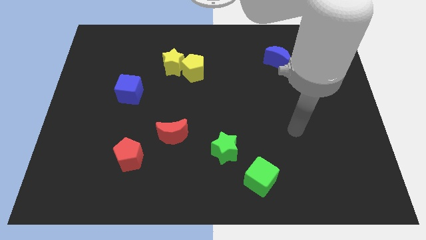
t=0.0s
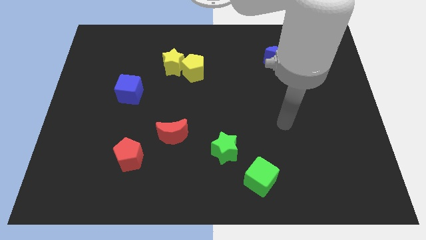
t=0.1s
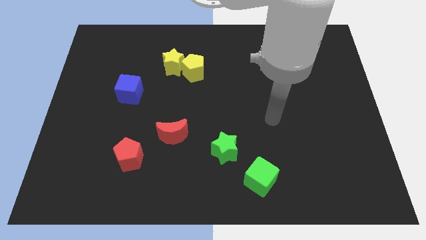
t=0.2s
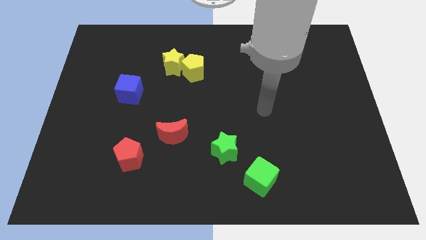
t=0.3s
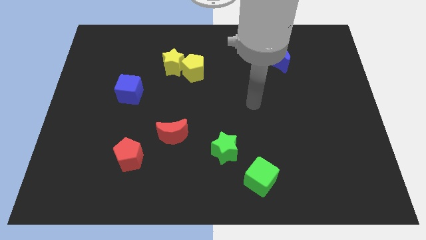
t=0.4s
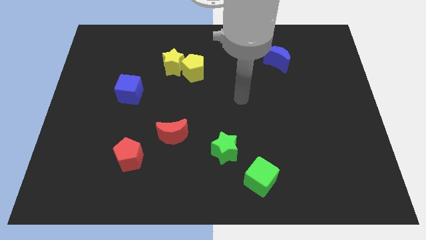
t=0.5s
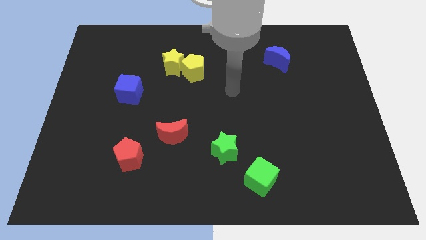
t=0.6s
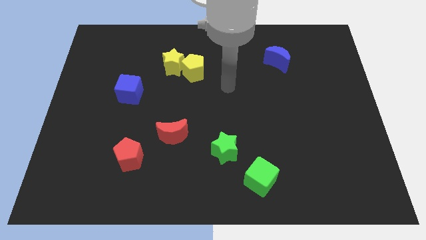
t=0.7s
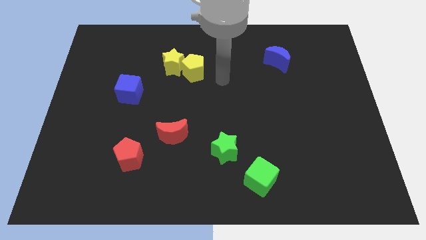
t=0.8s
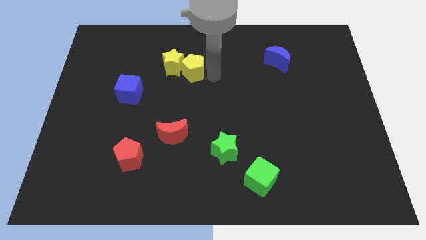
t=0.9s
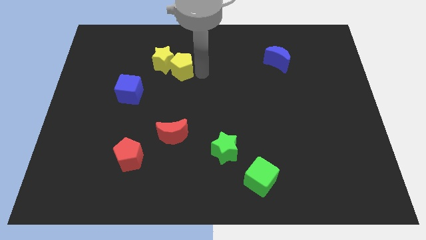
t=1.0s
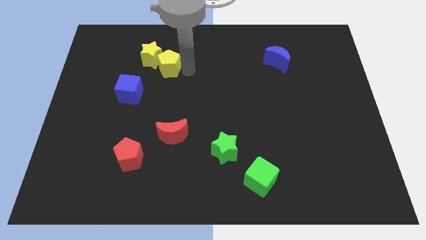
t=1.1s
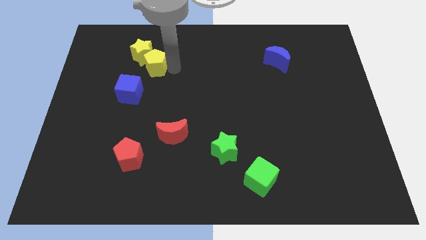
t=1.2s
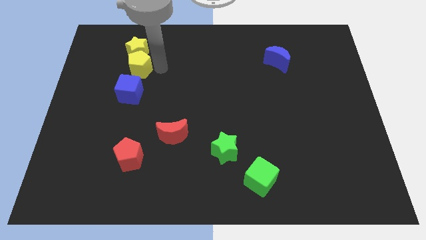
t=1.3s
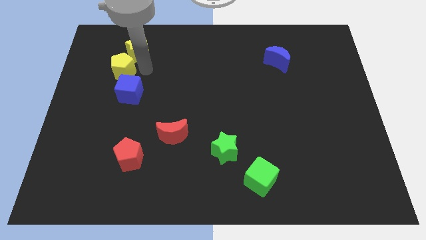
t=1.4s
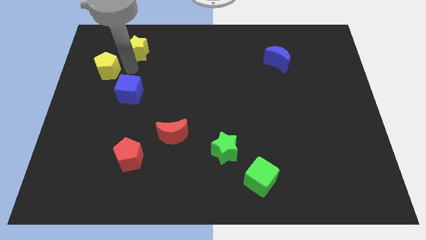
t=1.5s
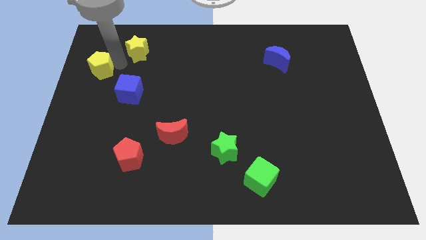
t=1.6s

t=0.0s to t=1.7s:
move the yellow star away from the yellow pentagon

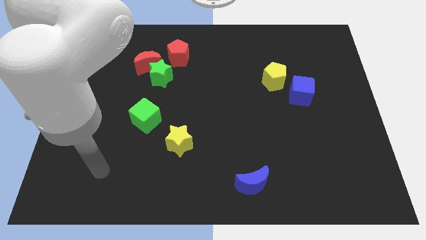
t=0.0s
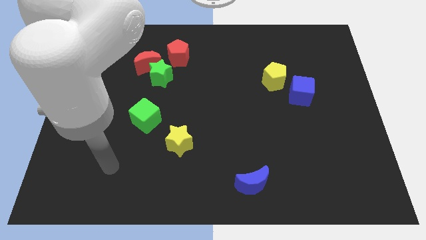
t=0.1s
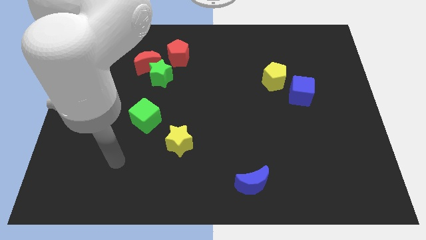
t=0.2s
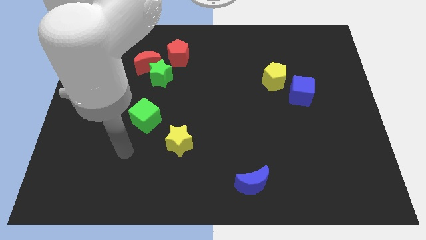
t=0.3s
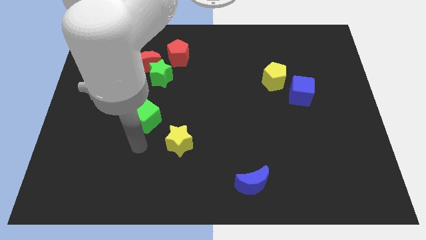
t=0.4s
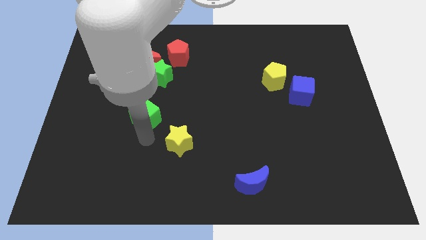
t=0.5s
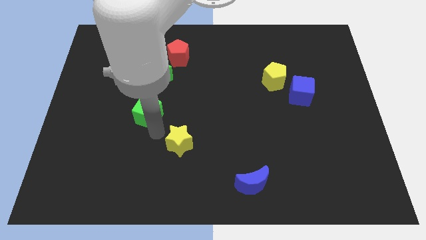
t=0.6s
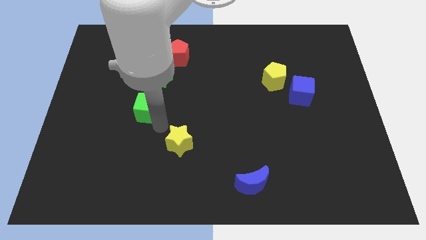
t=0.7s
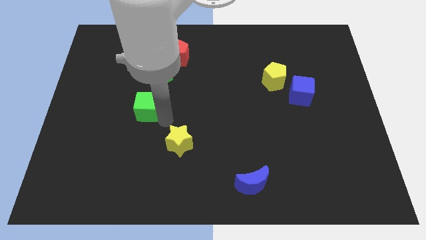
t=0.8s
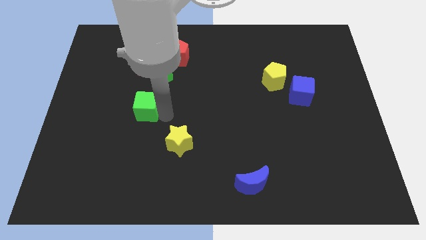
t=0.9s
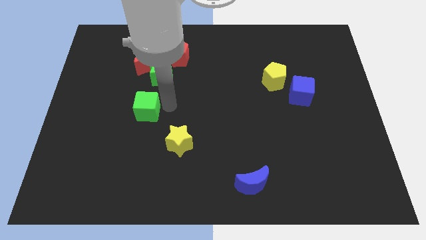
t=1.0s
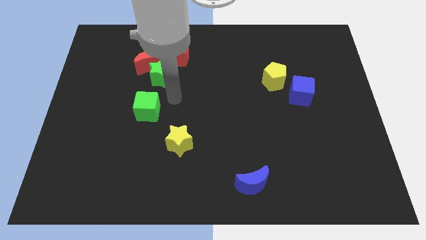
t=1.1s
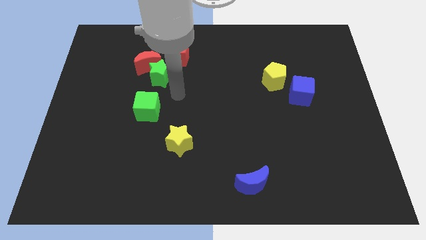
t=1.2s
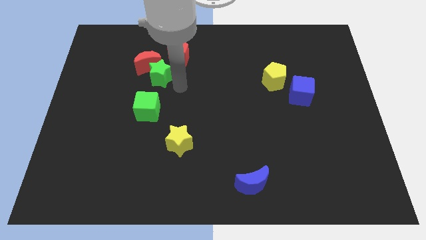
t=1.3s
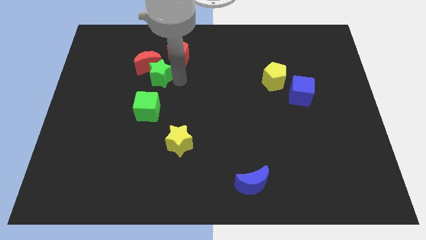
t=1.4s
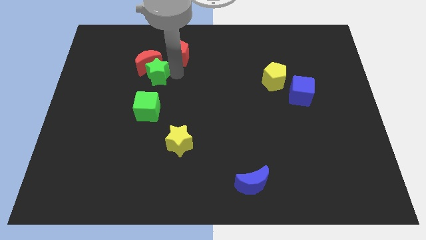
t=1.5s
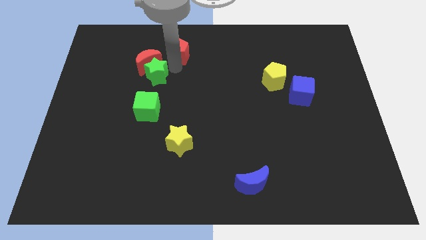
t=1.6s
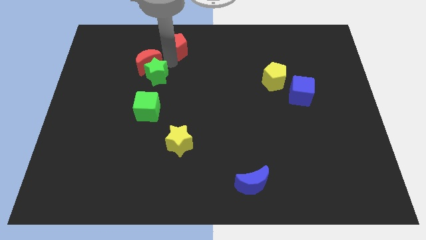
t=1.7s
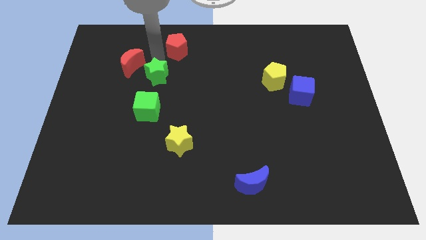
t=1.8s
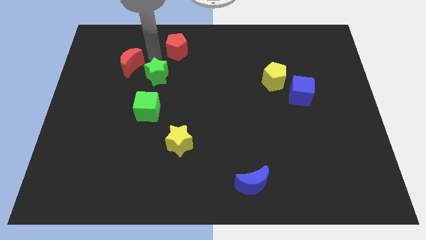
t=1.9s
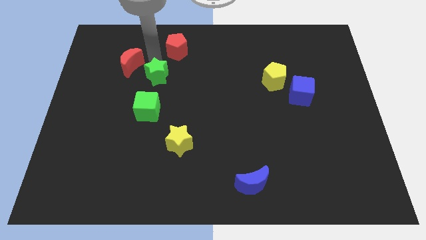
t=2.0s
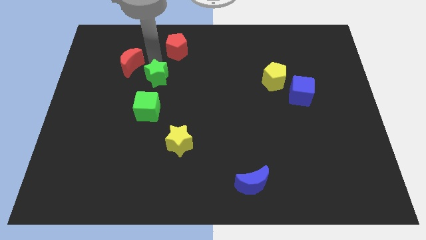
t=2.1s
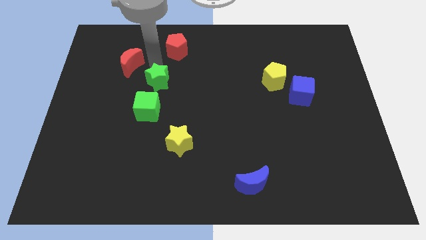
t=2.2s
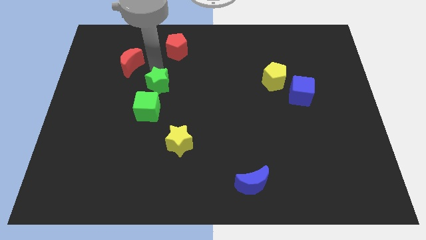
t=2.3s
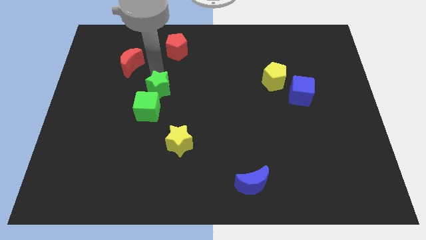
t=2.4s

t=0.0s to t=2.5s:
pull the green star apart from the red moon and red pentagon

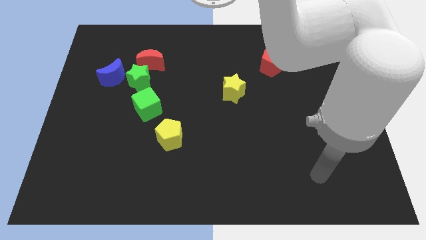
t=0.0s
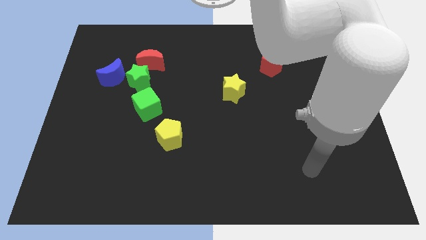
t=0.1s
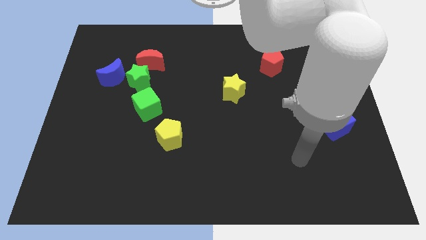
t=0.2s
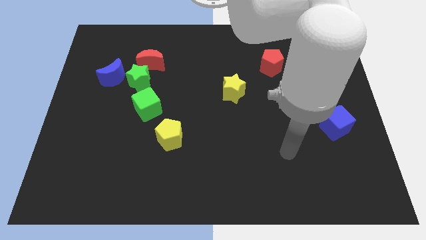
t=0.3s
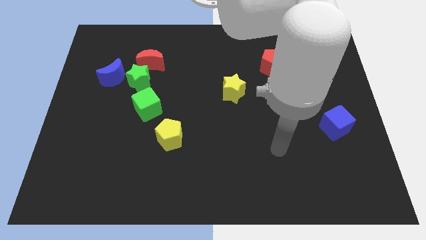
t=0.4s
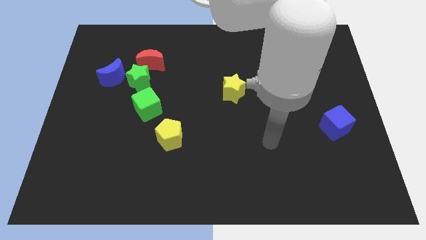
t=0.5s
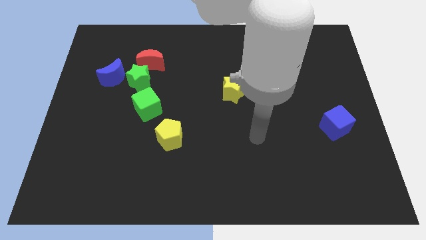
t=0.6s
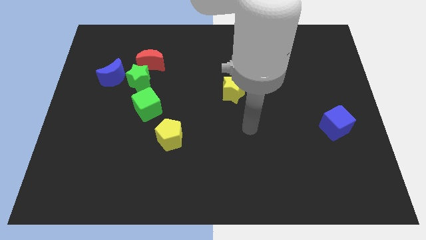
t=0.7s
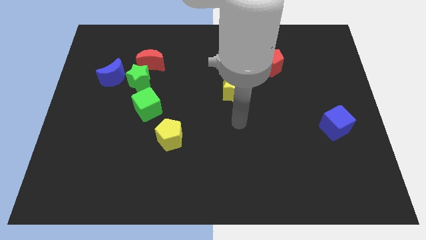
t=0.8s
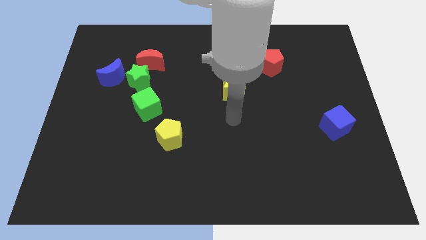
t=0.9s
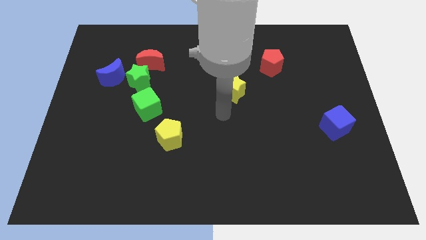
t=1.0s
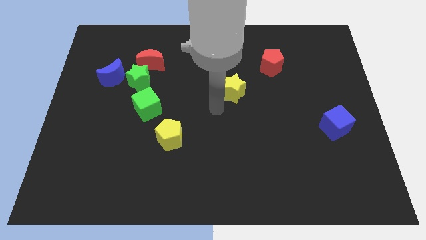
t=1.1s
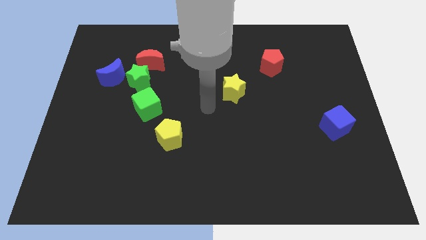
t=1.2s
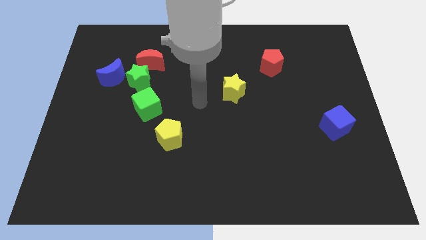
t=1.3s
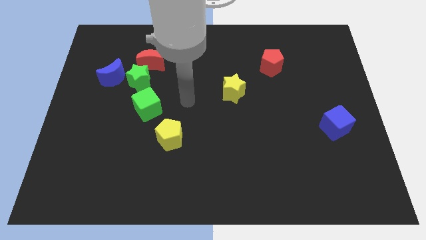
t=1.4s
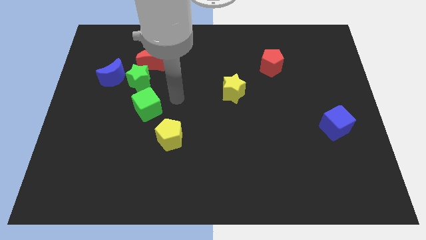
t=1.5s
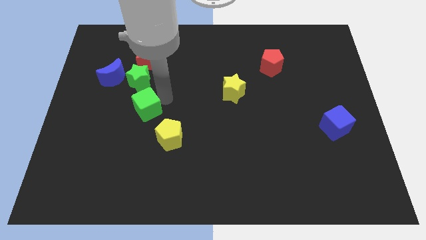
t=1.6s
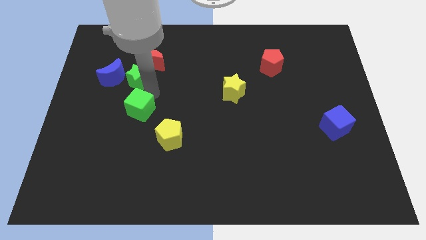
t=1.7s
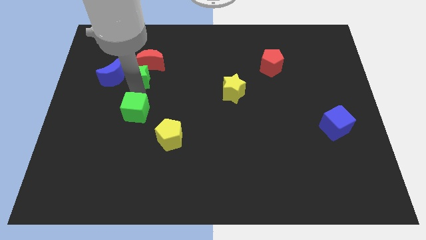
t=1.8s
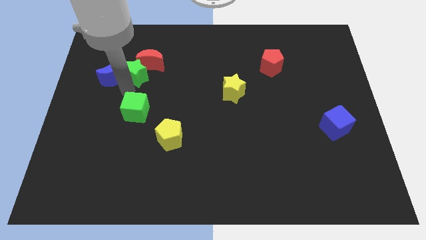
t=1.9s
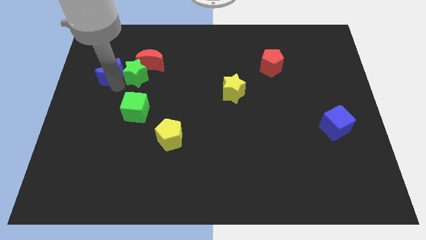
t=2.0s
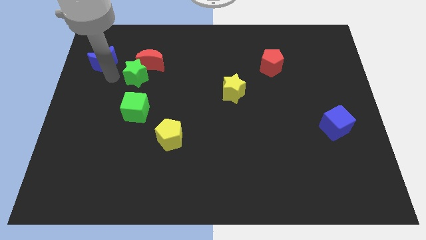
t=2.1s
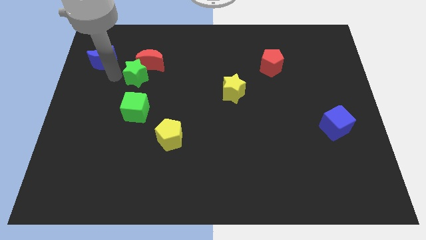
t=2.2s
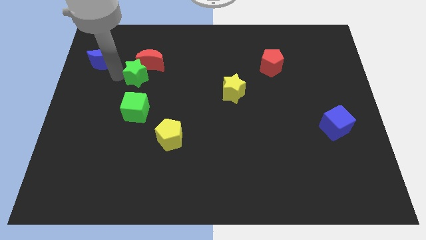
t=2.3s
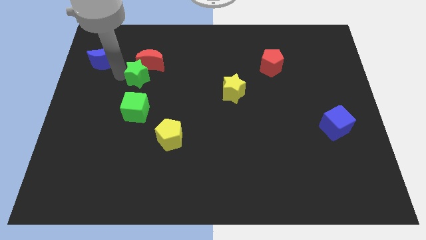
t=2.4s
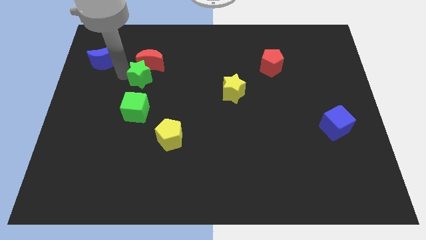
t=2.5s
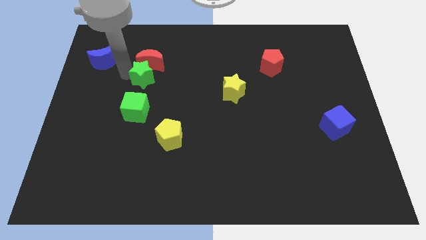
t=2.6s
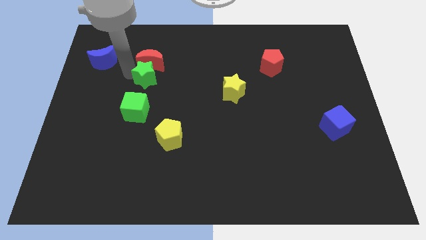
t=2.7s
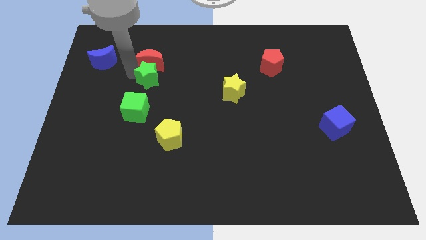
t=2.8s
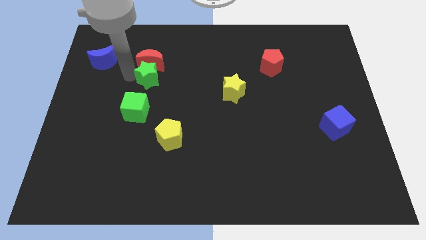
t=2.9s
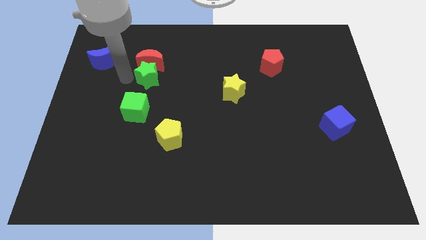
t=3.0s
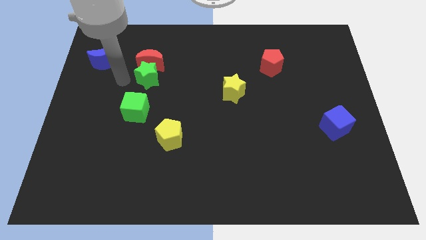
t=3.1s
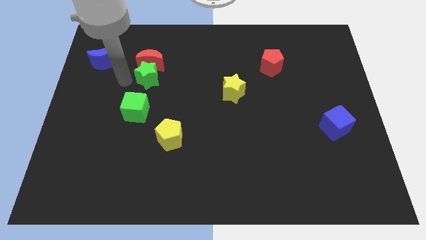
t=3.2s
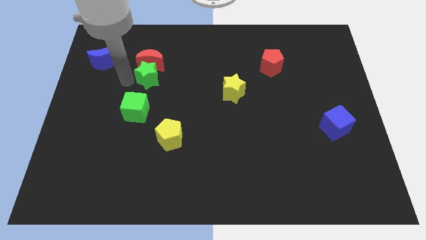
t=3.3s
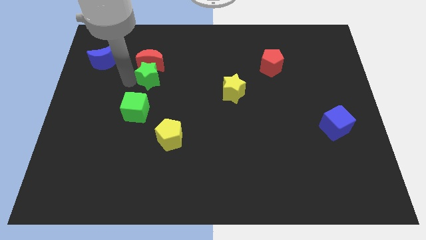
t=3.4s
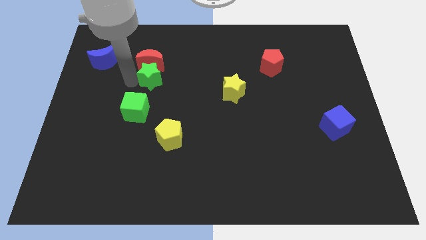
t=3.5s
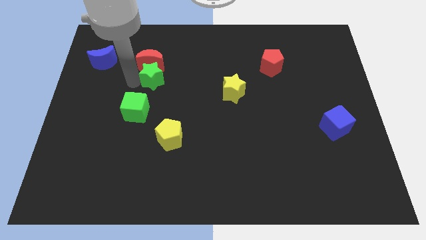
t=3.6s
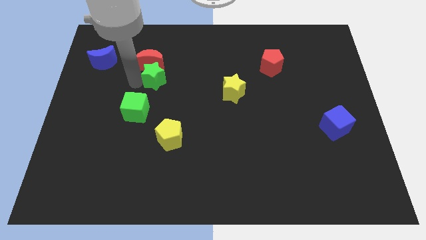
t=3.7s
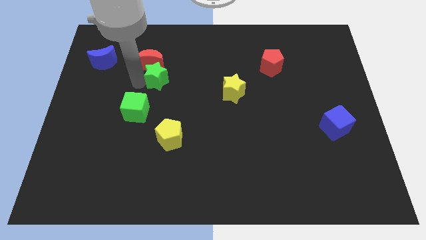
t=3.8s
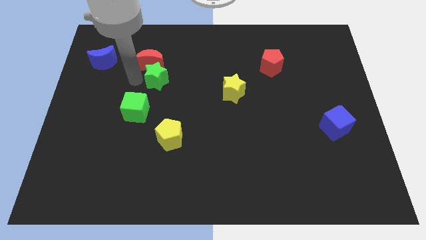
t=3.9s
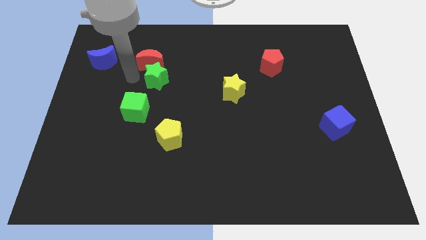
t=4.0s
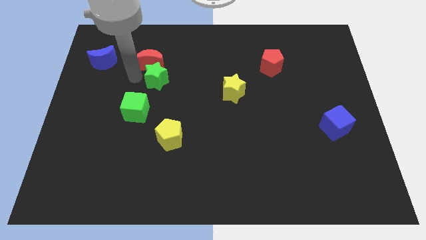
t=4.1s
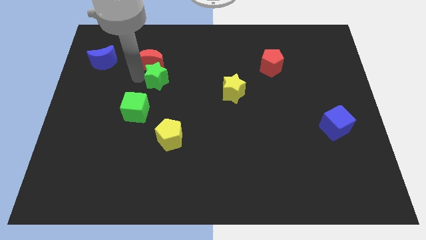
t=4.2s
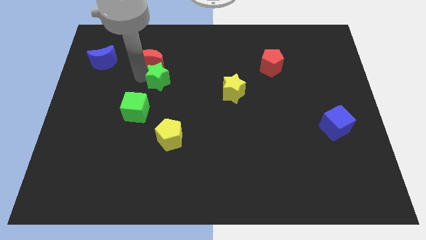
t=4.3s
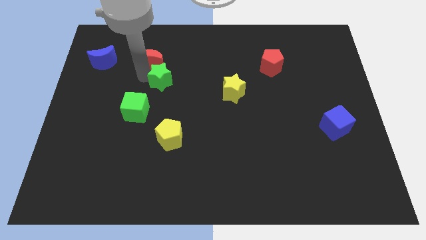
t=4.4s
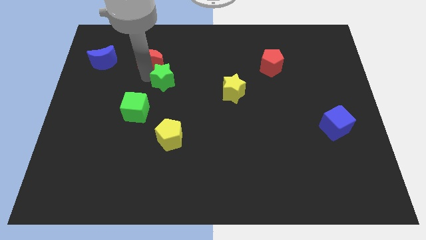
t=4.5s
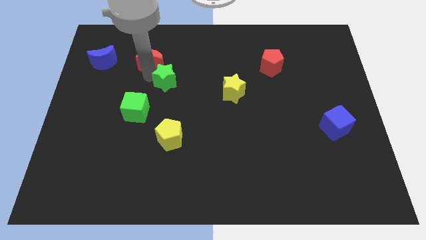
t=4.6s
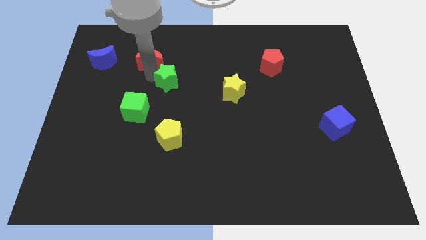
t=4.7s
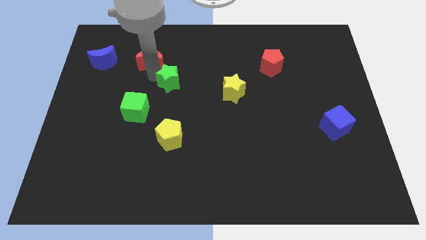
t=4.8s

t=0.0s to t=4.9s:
separate the green star from the red moon, blue moon, and green cube

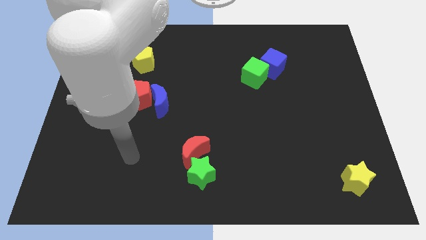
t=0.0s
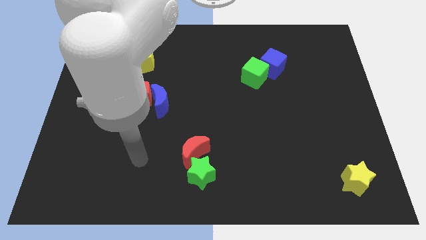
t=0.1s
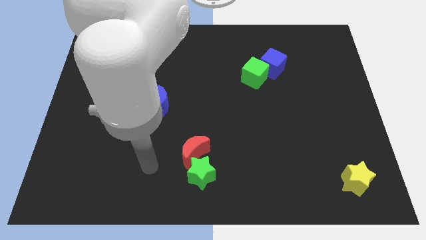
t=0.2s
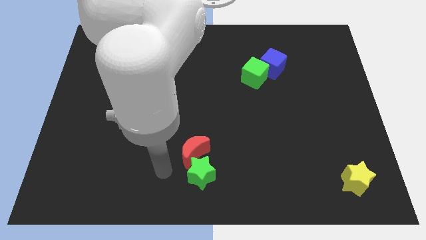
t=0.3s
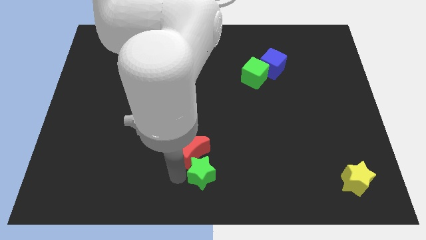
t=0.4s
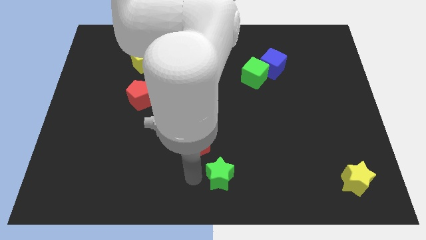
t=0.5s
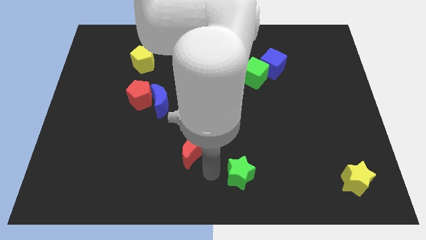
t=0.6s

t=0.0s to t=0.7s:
pull the red moon apart from the green star
